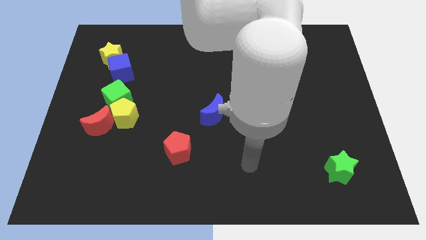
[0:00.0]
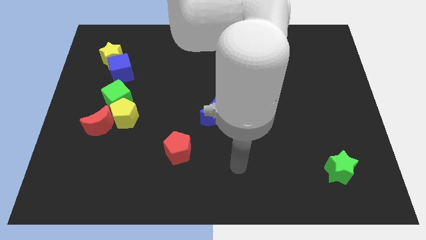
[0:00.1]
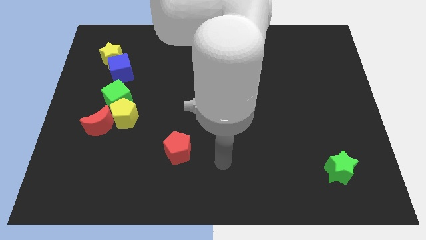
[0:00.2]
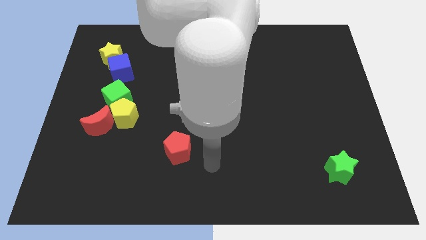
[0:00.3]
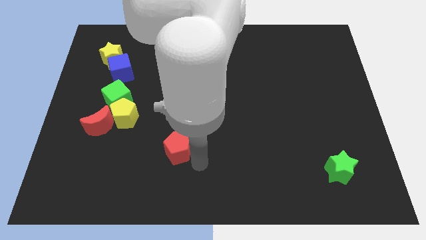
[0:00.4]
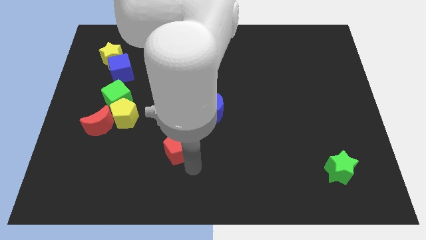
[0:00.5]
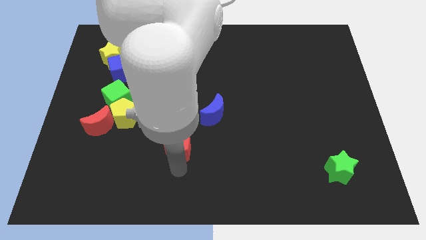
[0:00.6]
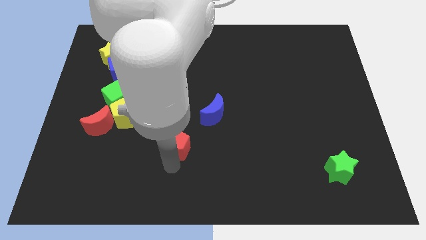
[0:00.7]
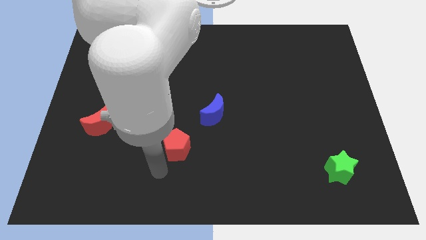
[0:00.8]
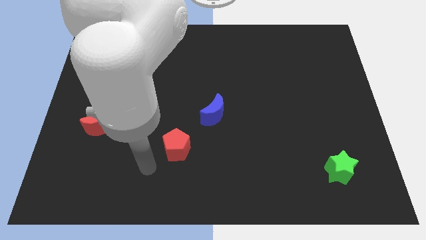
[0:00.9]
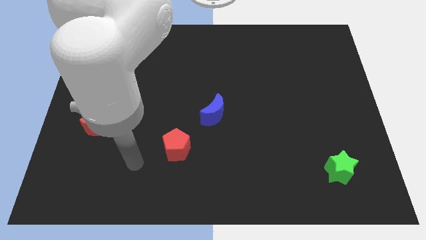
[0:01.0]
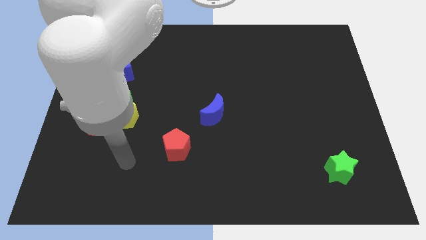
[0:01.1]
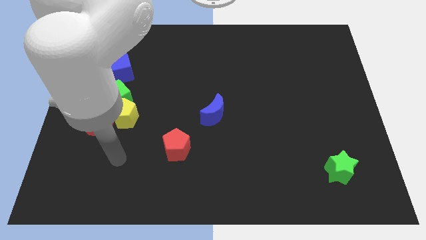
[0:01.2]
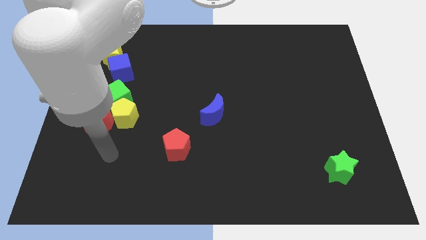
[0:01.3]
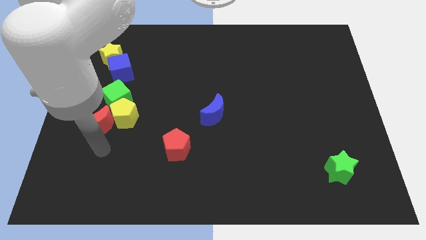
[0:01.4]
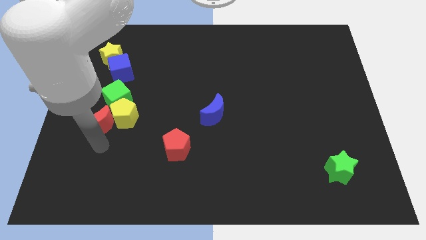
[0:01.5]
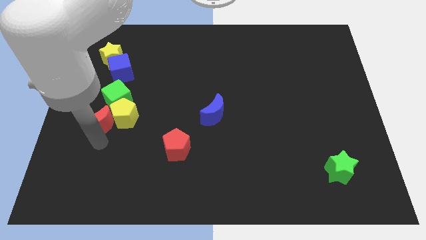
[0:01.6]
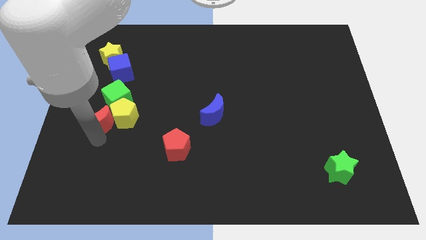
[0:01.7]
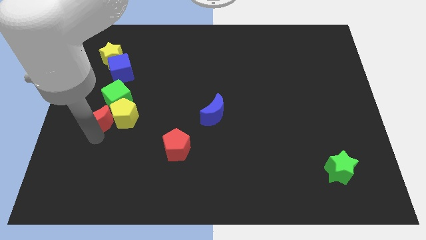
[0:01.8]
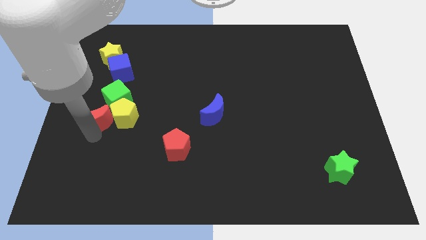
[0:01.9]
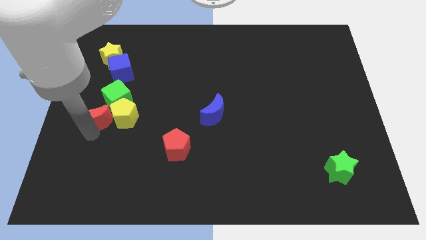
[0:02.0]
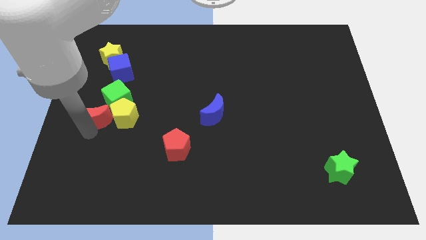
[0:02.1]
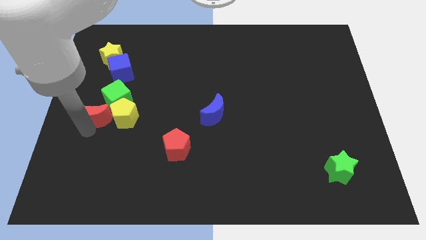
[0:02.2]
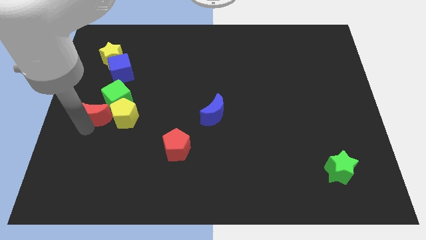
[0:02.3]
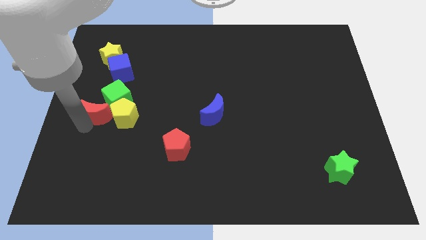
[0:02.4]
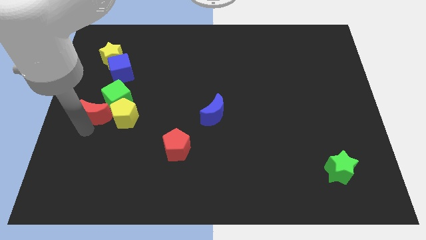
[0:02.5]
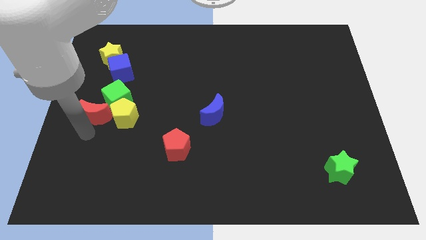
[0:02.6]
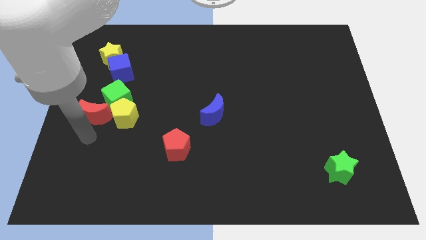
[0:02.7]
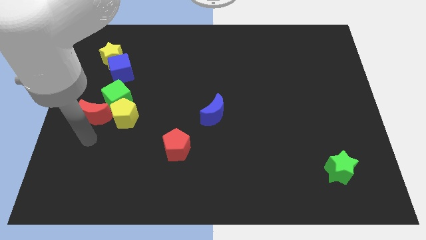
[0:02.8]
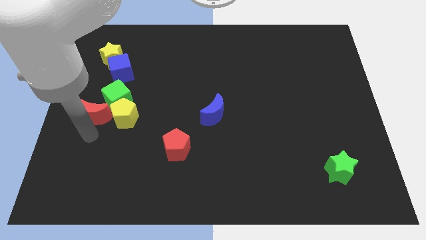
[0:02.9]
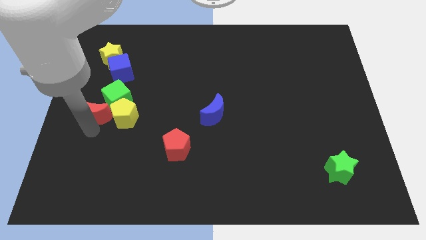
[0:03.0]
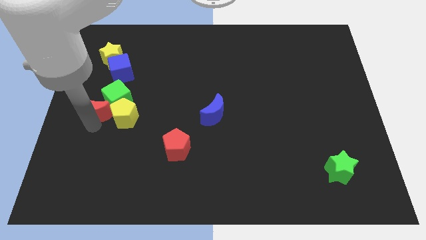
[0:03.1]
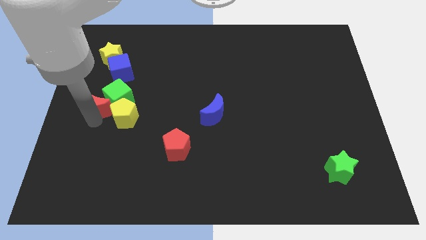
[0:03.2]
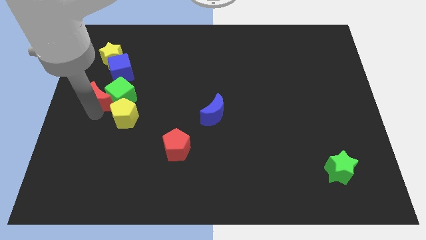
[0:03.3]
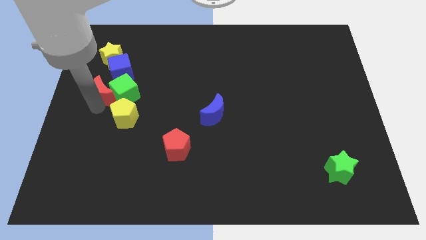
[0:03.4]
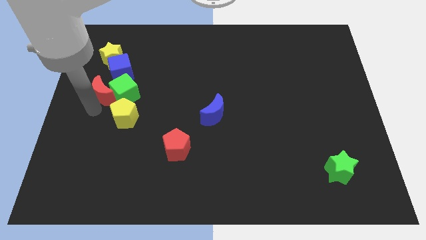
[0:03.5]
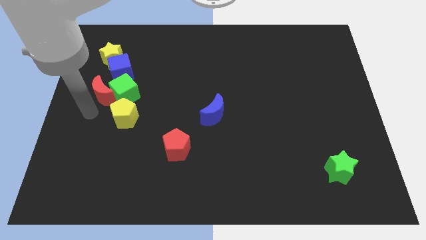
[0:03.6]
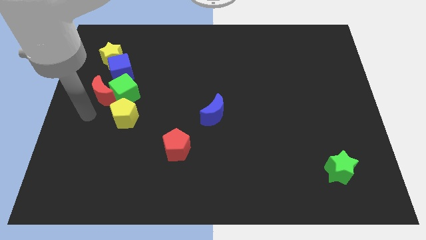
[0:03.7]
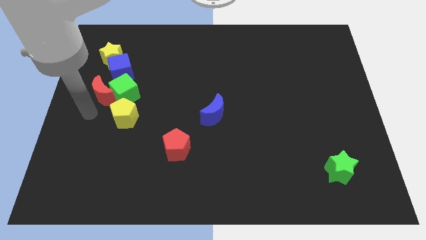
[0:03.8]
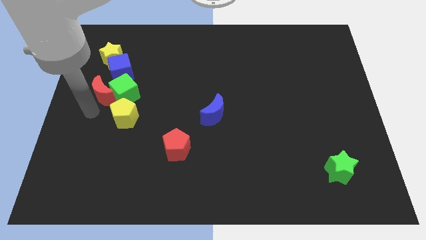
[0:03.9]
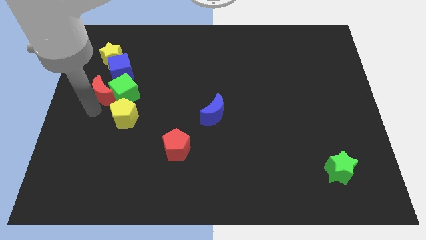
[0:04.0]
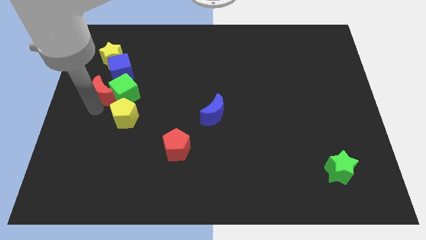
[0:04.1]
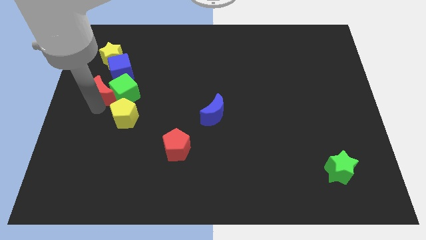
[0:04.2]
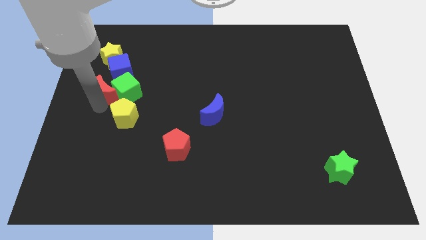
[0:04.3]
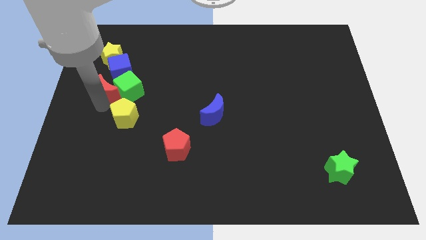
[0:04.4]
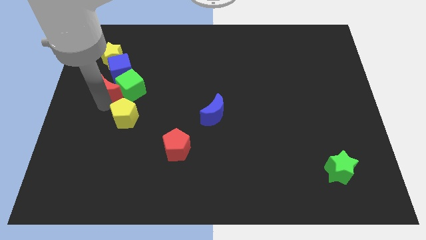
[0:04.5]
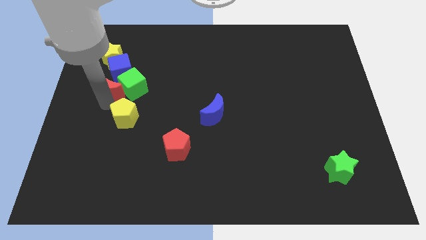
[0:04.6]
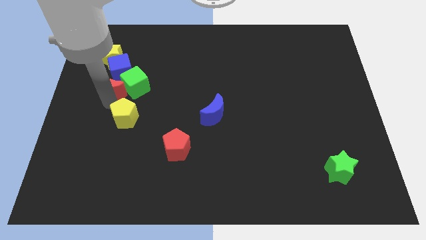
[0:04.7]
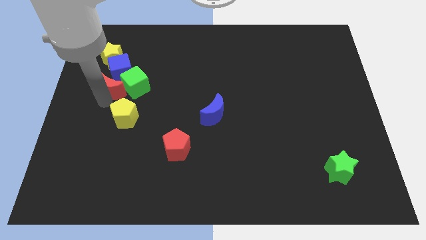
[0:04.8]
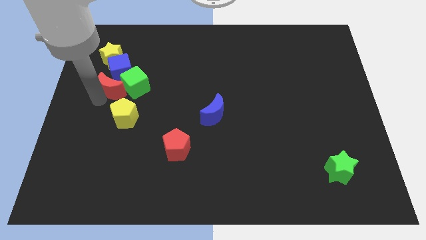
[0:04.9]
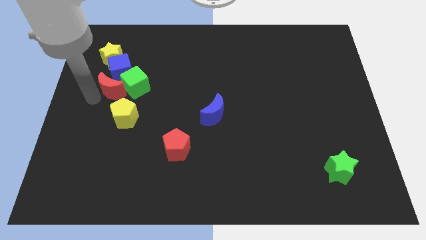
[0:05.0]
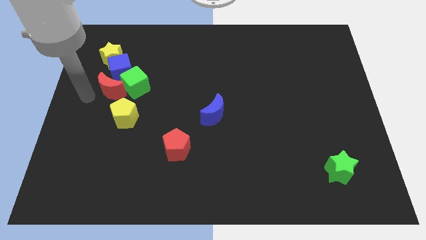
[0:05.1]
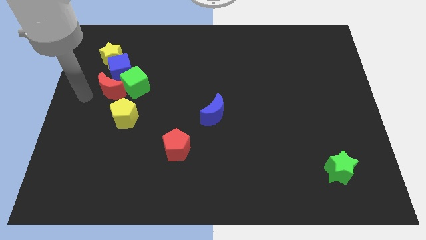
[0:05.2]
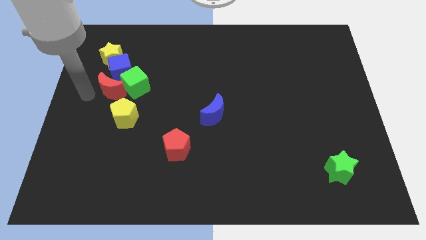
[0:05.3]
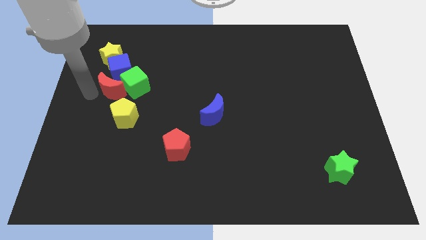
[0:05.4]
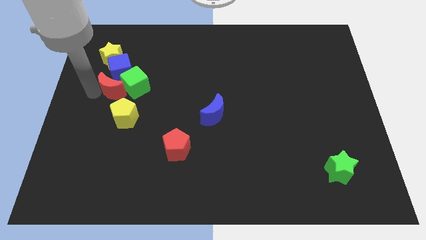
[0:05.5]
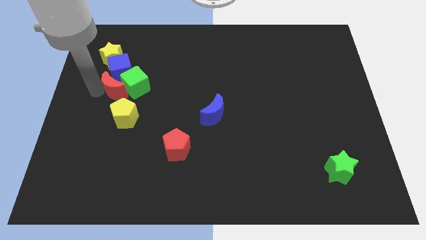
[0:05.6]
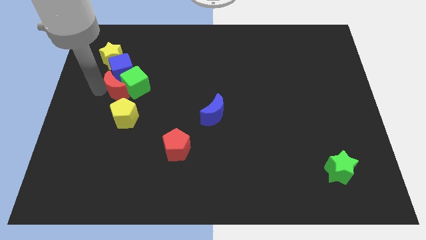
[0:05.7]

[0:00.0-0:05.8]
slightly slide the red moon upwards and then right

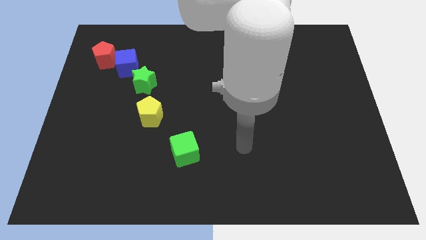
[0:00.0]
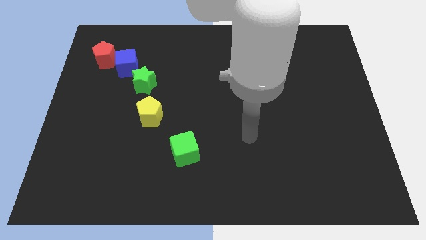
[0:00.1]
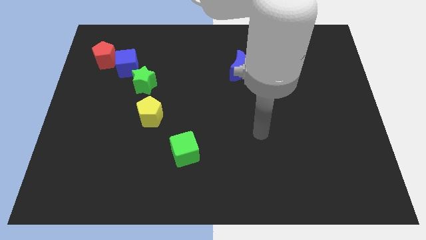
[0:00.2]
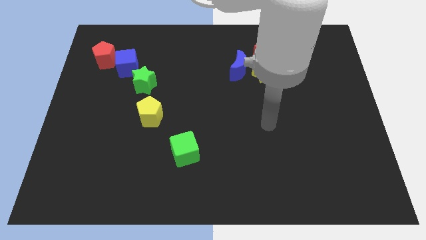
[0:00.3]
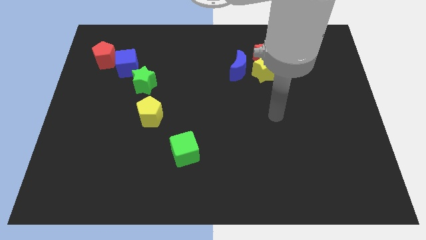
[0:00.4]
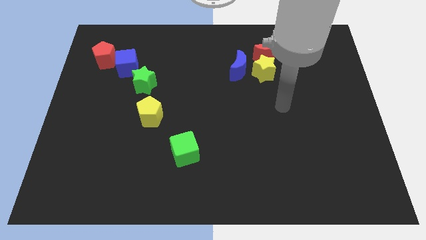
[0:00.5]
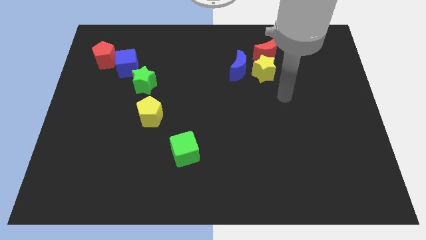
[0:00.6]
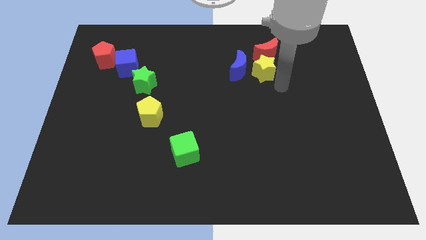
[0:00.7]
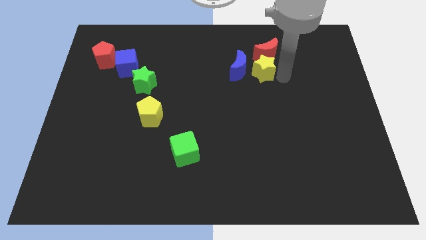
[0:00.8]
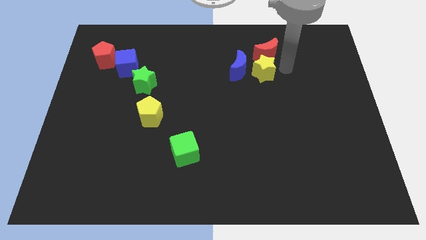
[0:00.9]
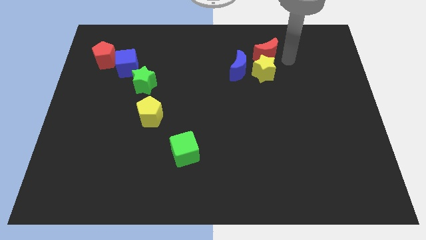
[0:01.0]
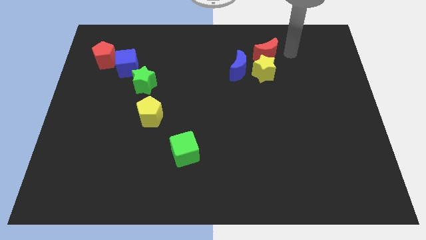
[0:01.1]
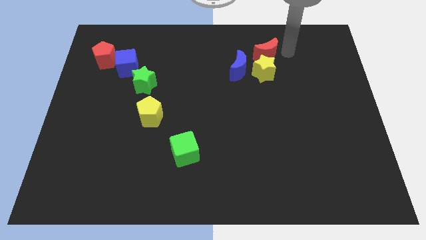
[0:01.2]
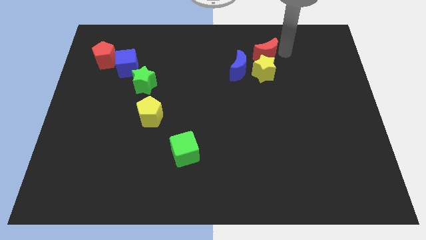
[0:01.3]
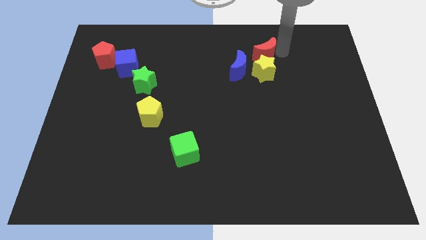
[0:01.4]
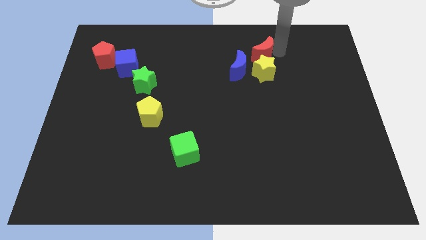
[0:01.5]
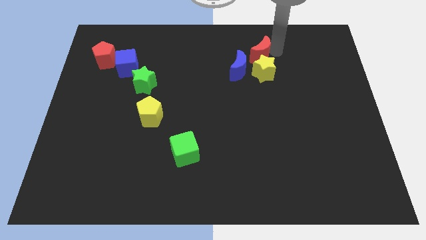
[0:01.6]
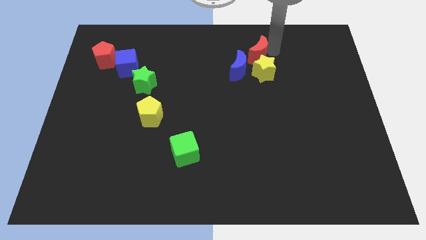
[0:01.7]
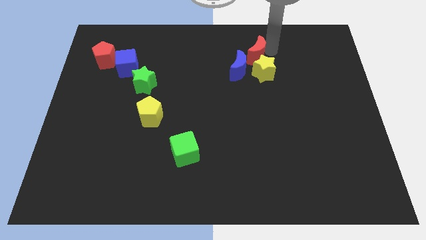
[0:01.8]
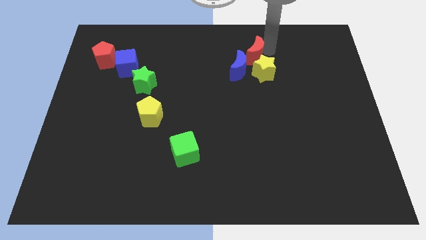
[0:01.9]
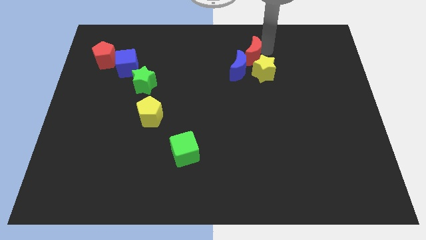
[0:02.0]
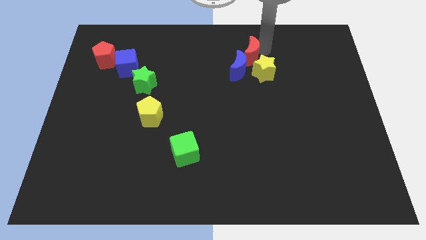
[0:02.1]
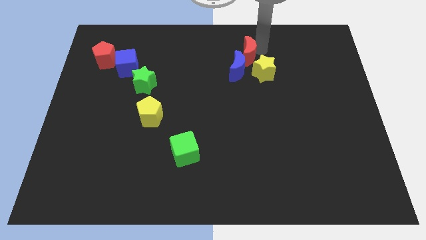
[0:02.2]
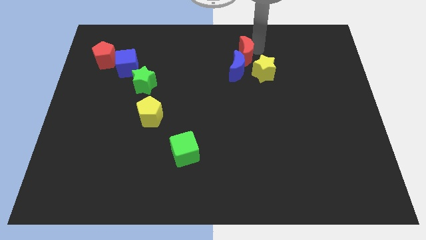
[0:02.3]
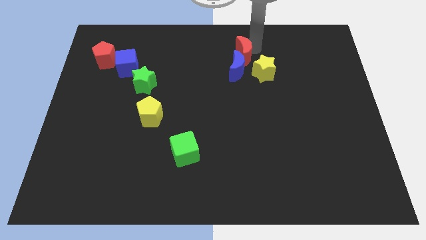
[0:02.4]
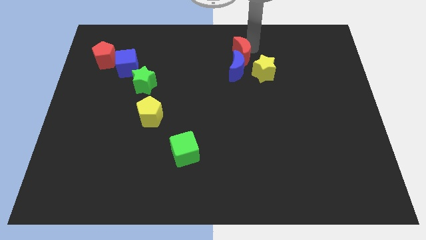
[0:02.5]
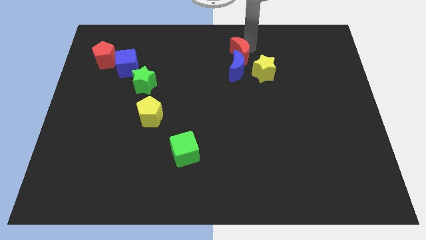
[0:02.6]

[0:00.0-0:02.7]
slightly move the red moon left
